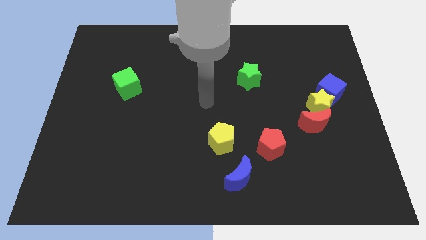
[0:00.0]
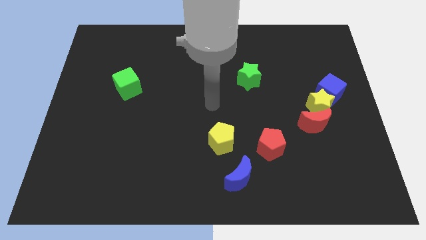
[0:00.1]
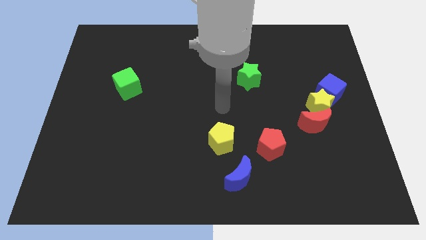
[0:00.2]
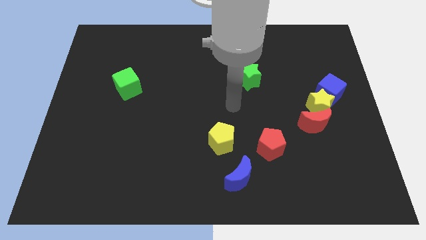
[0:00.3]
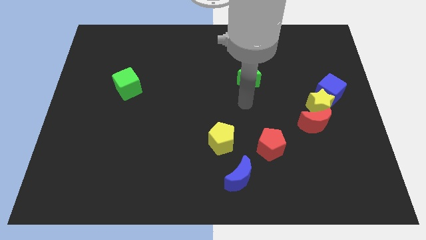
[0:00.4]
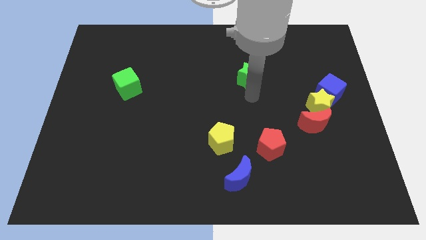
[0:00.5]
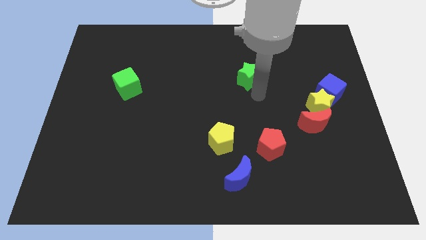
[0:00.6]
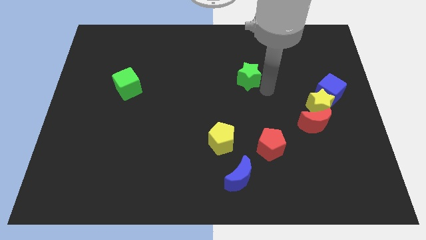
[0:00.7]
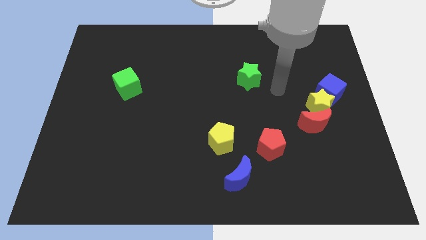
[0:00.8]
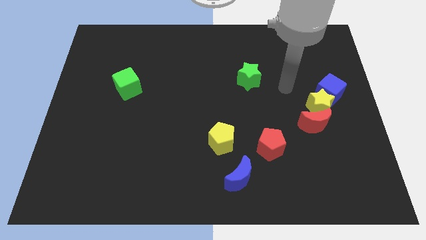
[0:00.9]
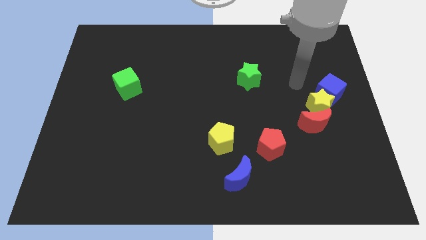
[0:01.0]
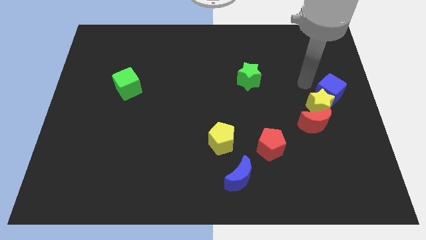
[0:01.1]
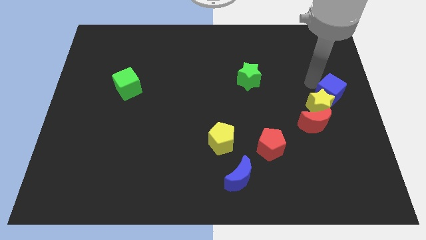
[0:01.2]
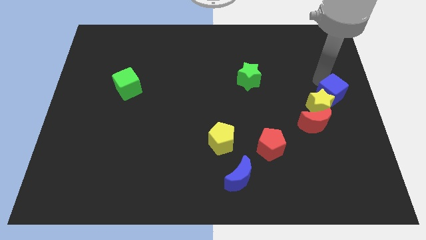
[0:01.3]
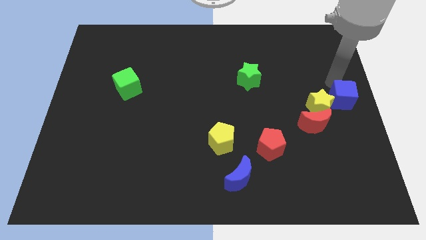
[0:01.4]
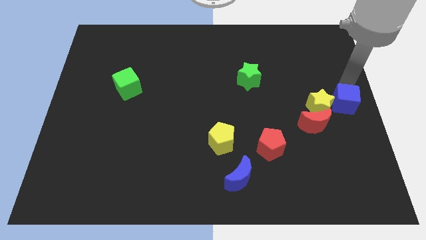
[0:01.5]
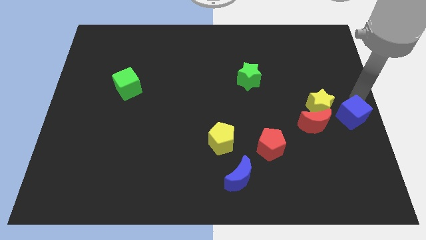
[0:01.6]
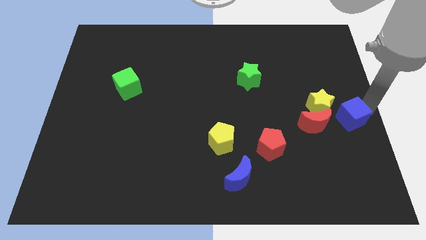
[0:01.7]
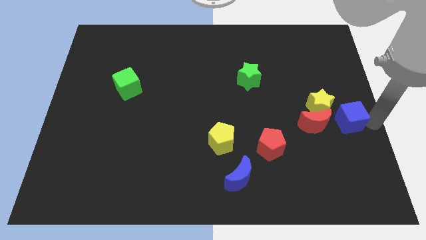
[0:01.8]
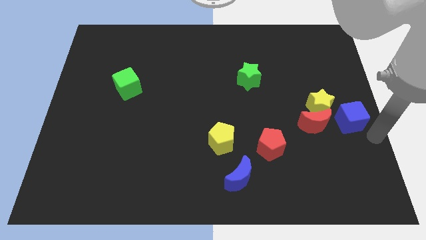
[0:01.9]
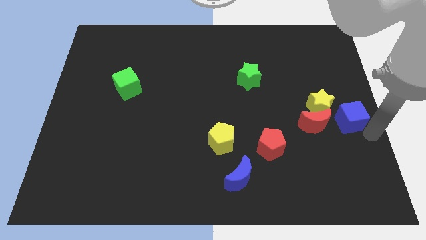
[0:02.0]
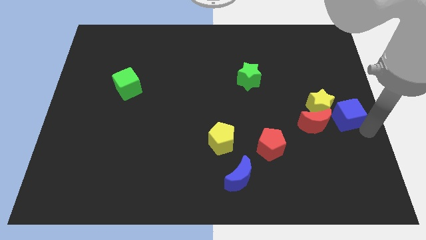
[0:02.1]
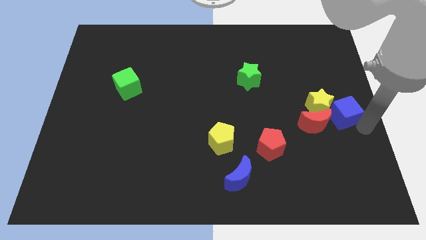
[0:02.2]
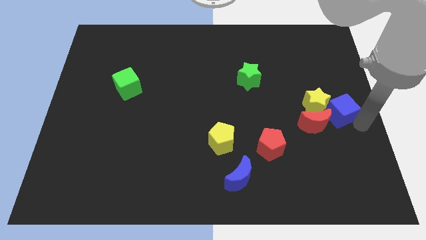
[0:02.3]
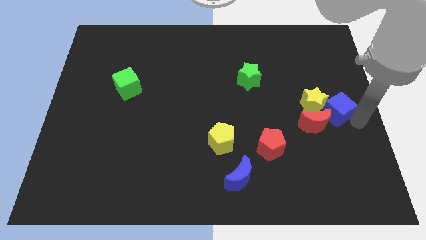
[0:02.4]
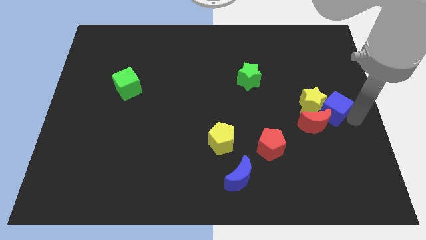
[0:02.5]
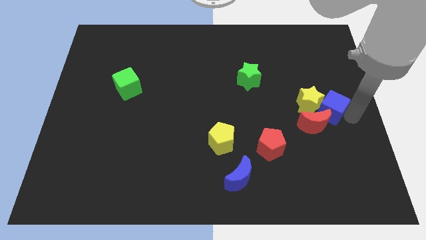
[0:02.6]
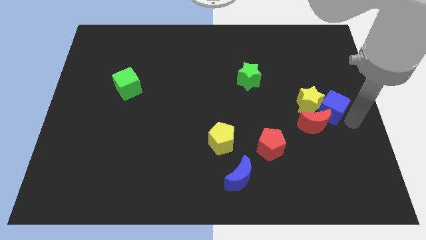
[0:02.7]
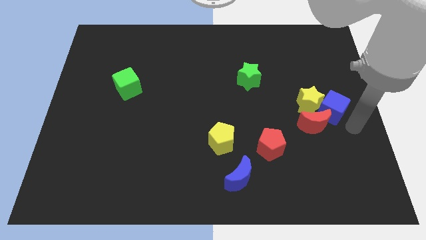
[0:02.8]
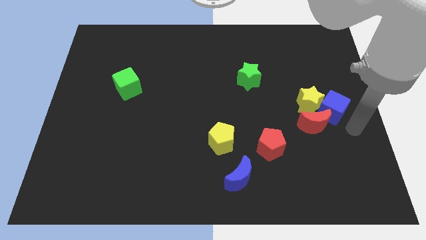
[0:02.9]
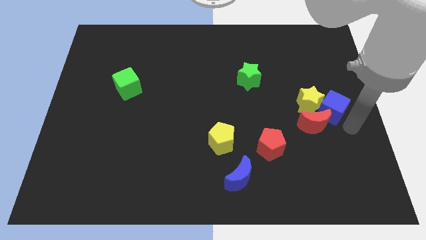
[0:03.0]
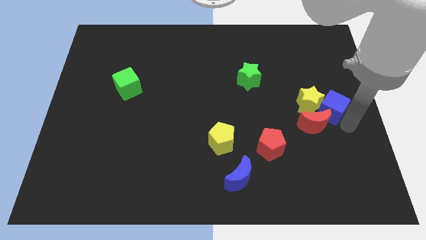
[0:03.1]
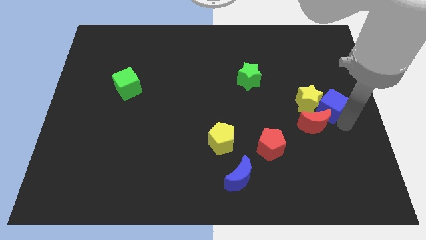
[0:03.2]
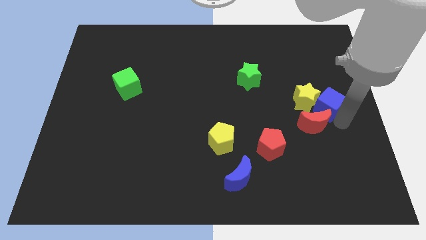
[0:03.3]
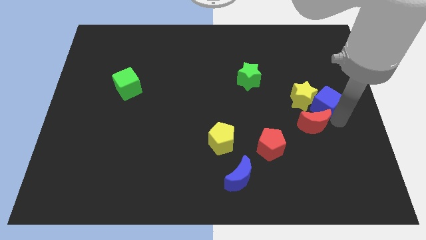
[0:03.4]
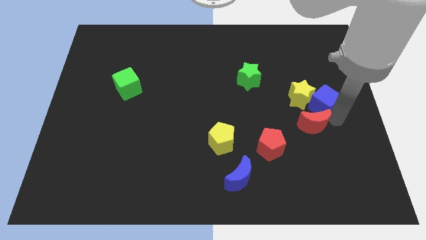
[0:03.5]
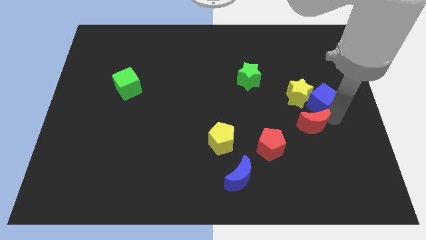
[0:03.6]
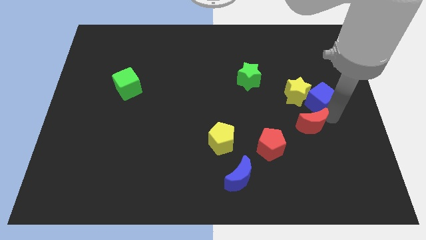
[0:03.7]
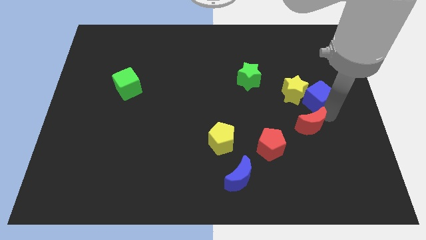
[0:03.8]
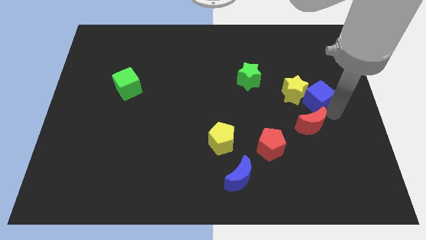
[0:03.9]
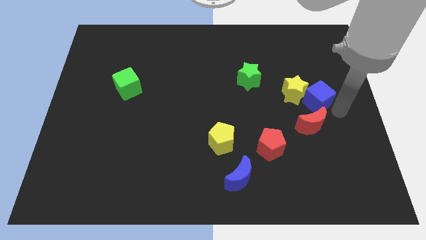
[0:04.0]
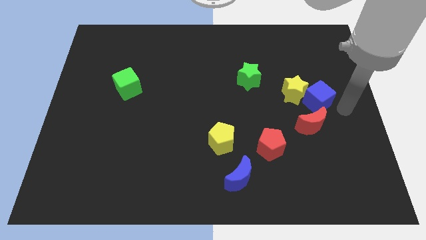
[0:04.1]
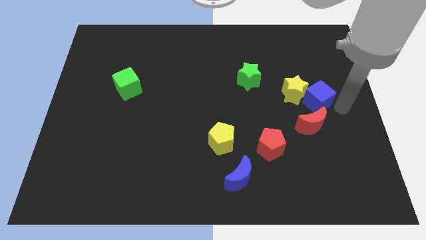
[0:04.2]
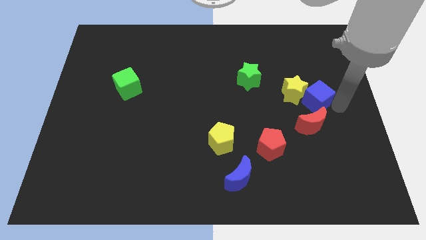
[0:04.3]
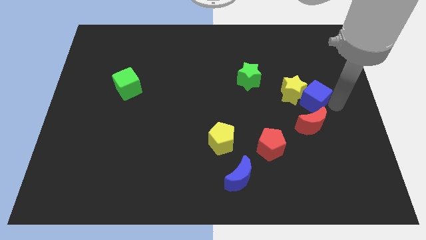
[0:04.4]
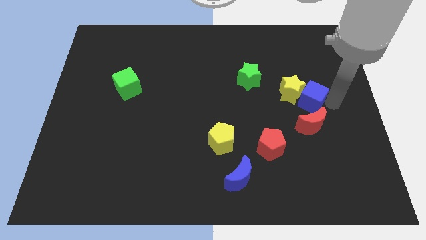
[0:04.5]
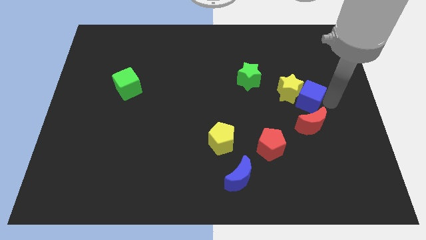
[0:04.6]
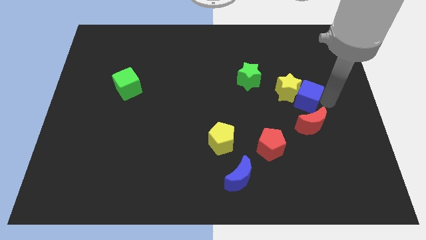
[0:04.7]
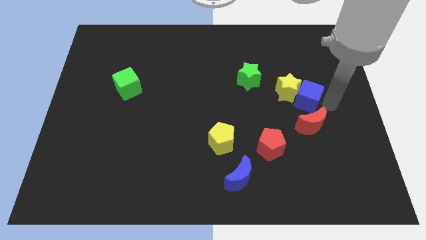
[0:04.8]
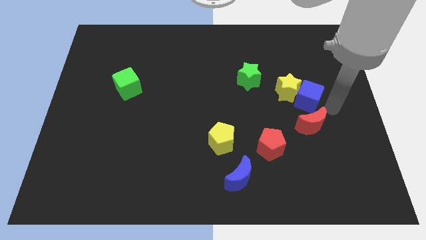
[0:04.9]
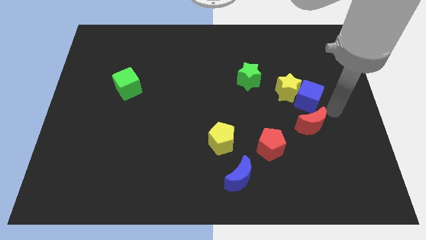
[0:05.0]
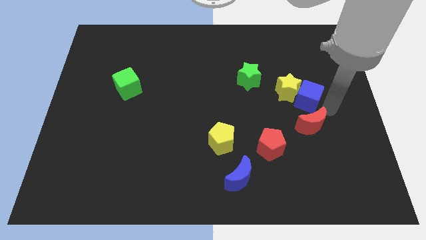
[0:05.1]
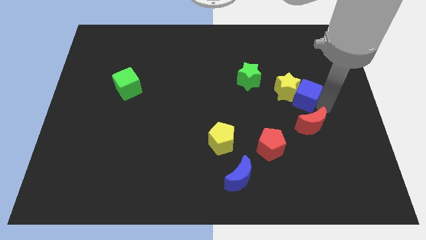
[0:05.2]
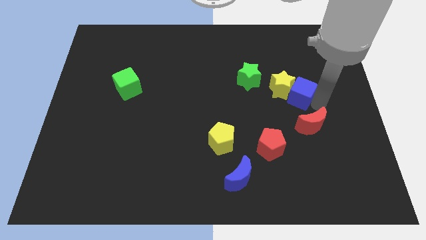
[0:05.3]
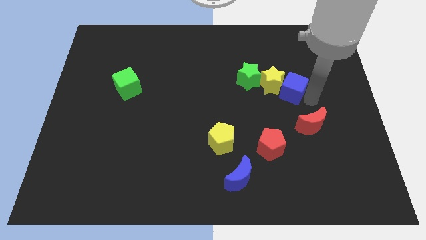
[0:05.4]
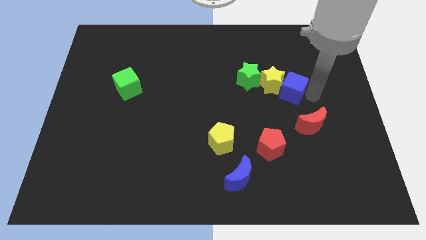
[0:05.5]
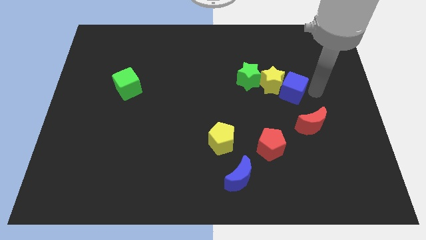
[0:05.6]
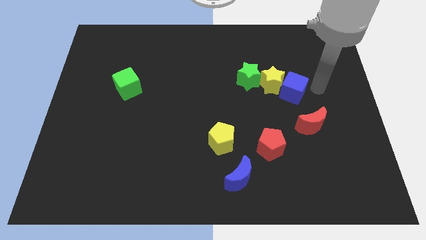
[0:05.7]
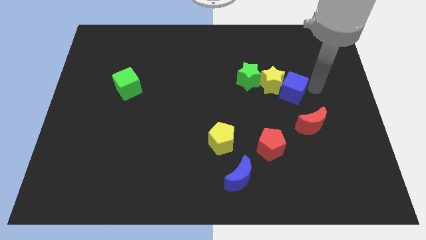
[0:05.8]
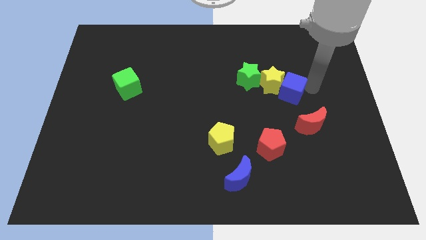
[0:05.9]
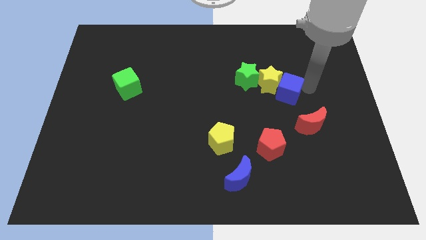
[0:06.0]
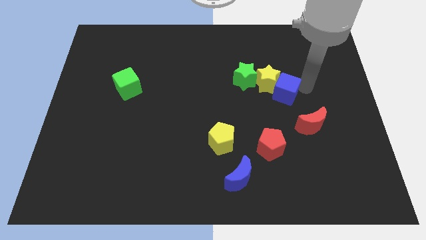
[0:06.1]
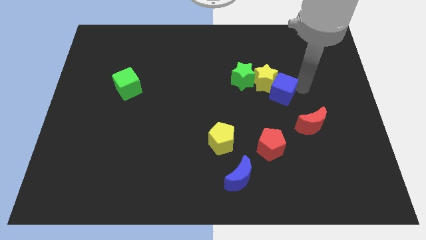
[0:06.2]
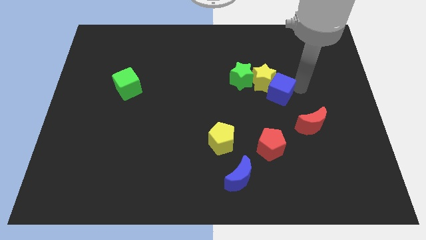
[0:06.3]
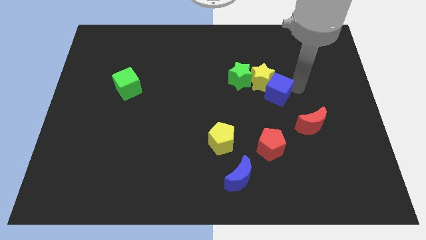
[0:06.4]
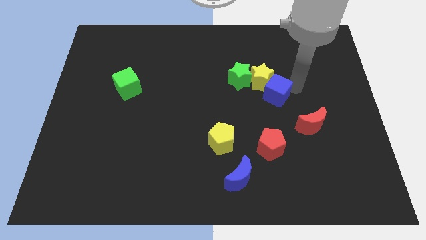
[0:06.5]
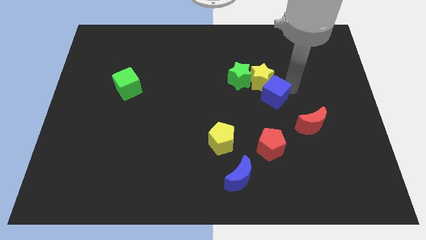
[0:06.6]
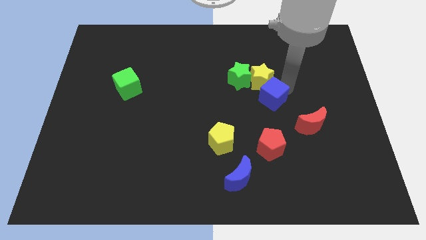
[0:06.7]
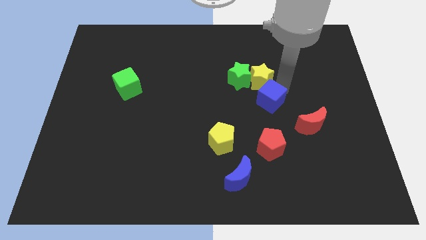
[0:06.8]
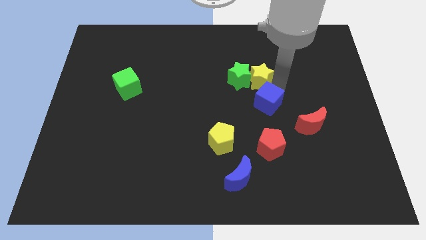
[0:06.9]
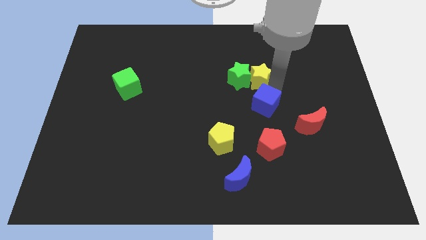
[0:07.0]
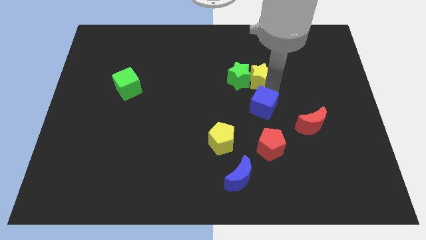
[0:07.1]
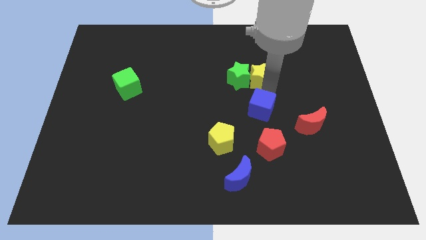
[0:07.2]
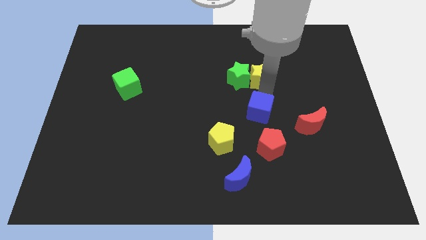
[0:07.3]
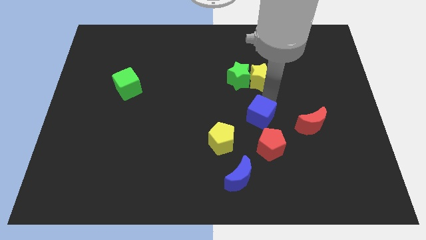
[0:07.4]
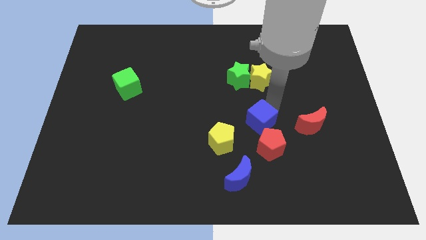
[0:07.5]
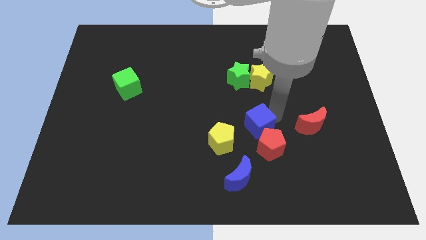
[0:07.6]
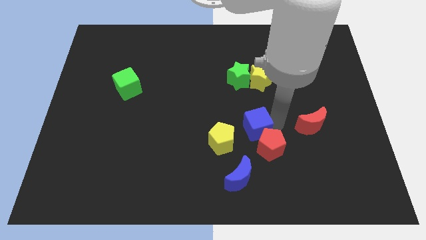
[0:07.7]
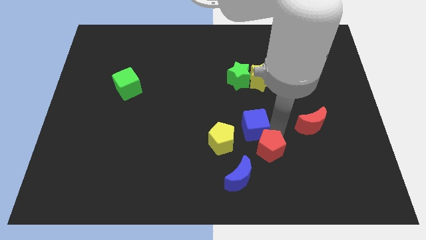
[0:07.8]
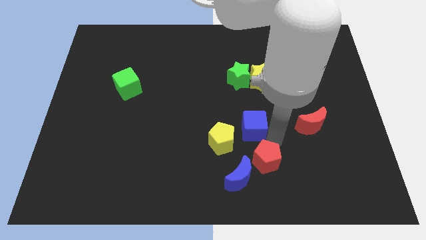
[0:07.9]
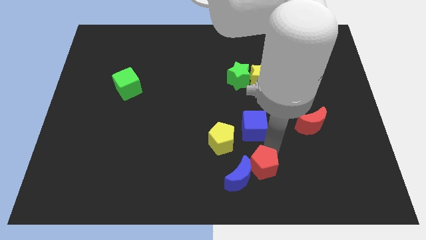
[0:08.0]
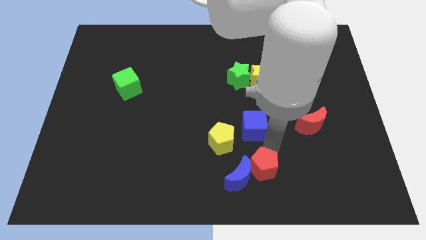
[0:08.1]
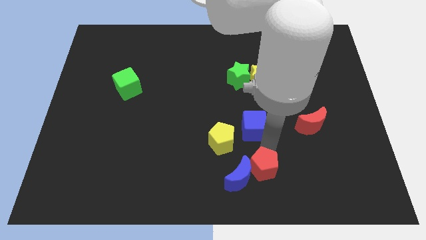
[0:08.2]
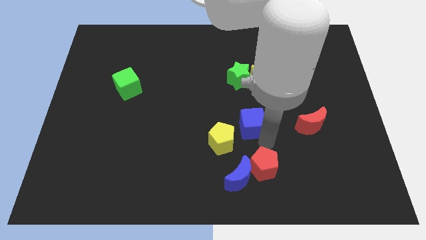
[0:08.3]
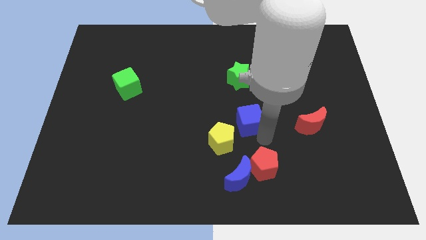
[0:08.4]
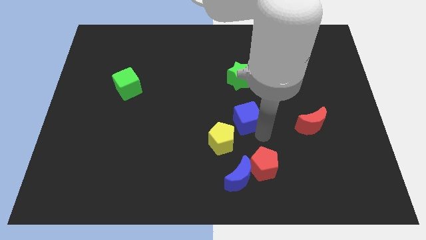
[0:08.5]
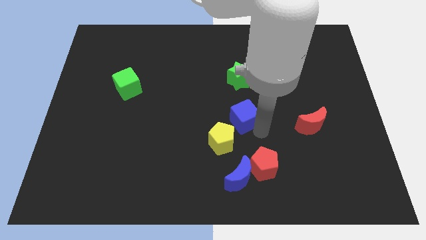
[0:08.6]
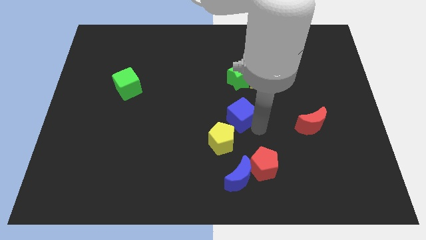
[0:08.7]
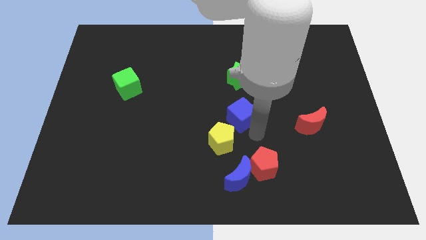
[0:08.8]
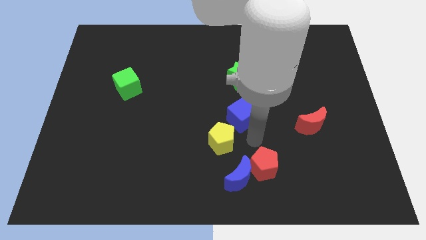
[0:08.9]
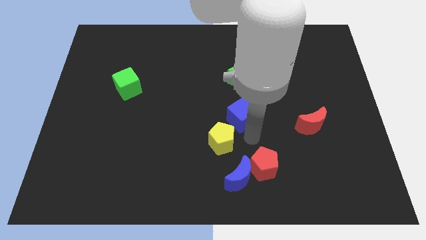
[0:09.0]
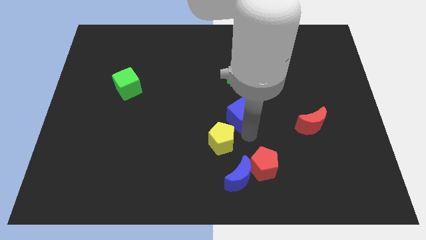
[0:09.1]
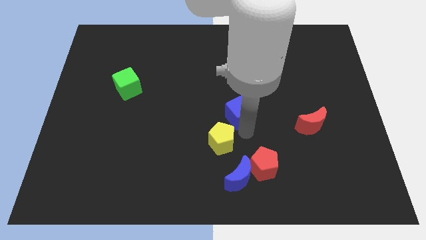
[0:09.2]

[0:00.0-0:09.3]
move the blue cube to the left
